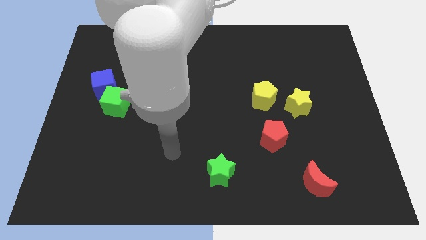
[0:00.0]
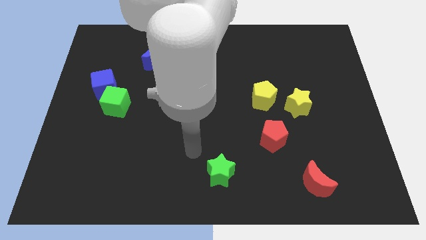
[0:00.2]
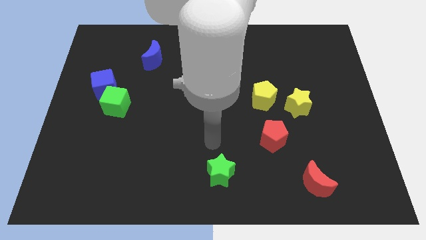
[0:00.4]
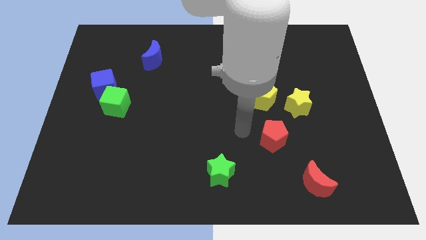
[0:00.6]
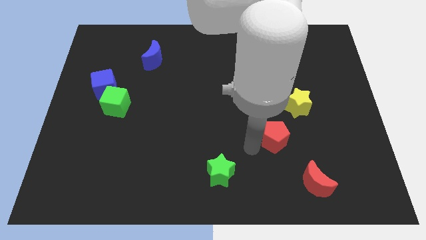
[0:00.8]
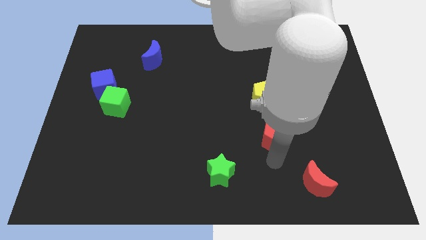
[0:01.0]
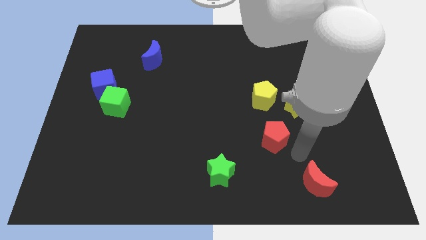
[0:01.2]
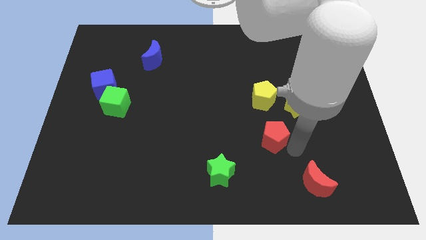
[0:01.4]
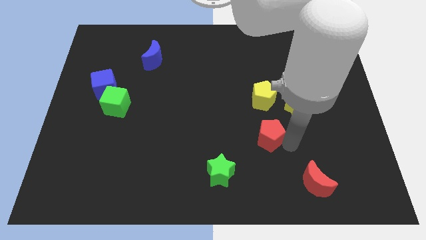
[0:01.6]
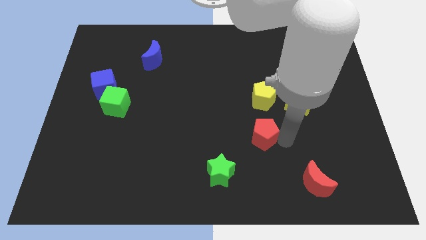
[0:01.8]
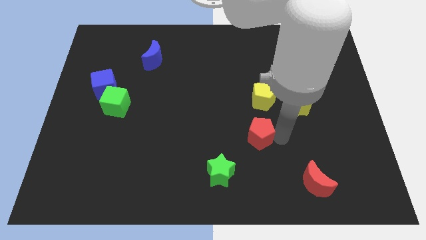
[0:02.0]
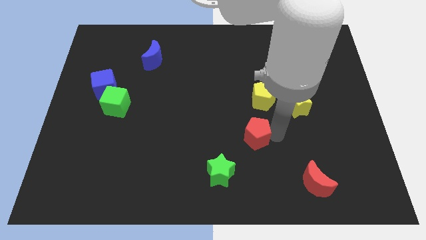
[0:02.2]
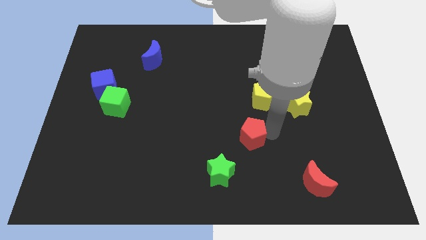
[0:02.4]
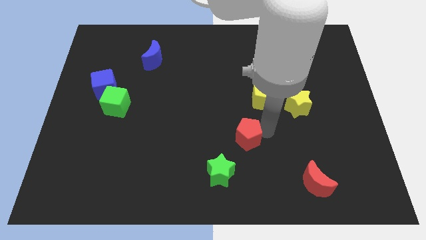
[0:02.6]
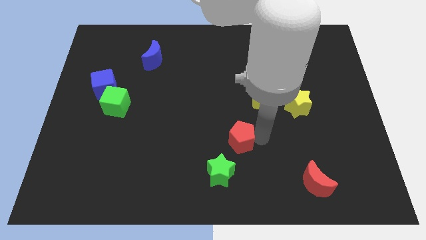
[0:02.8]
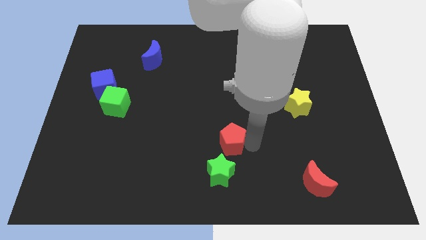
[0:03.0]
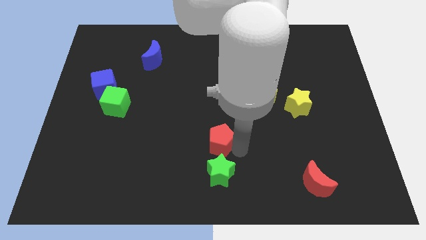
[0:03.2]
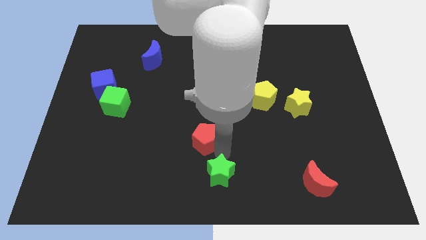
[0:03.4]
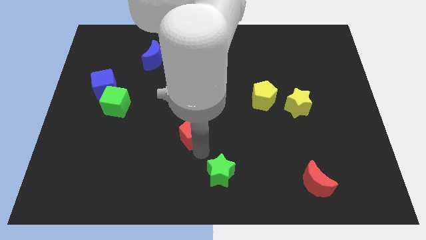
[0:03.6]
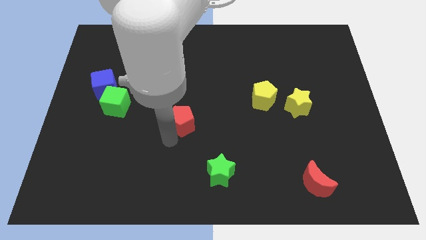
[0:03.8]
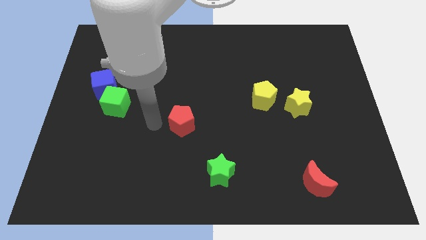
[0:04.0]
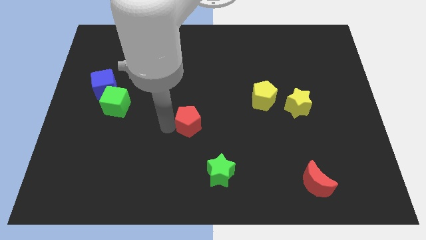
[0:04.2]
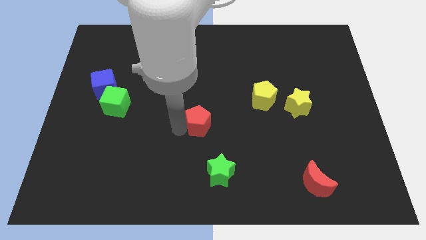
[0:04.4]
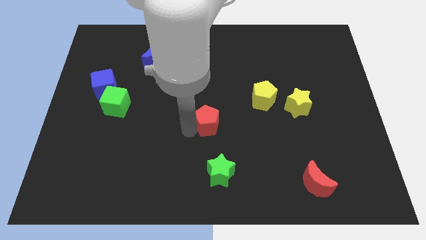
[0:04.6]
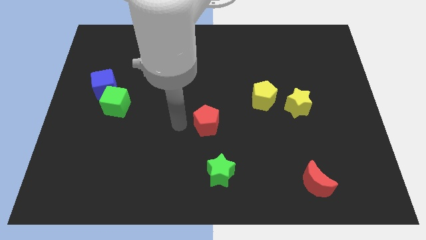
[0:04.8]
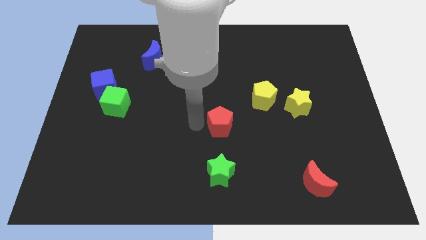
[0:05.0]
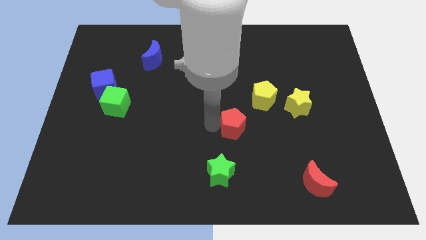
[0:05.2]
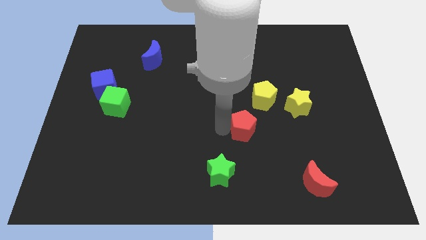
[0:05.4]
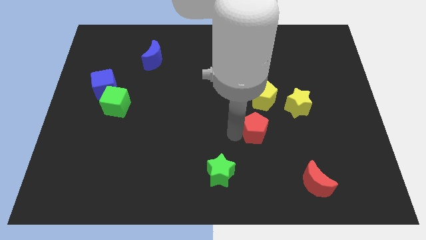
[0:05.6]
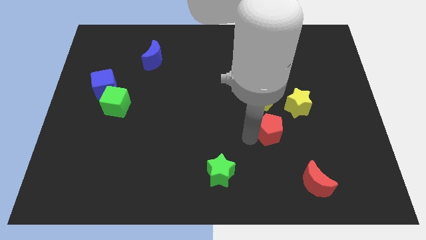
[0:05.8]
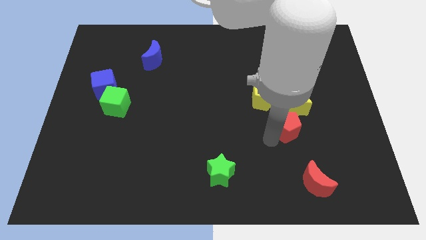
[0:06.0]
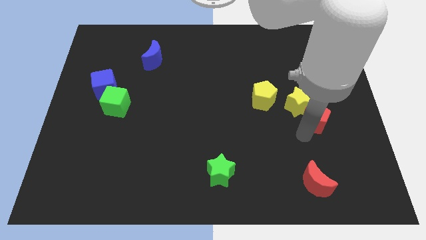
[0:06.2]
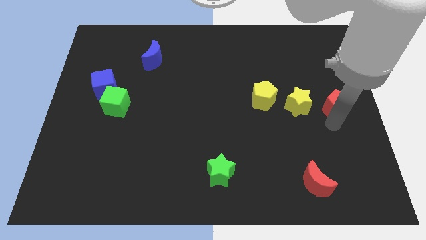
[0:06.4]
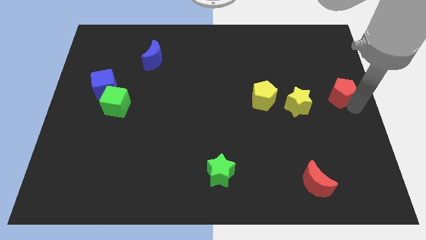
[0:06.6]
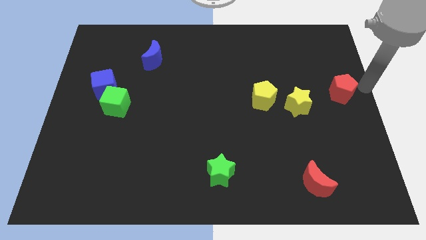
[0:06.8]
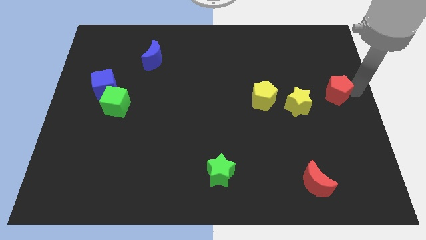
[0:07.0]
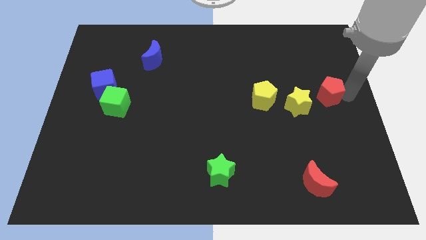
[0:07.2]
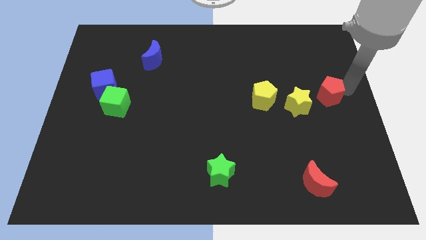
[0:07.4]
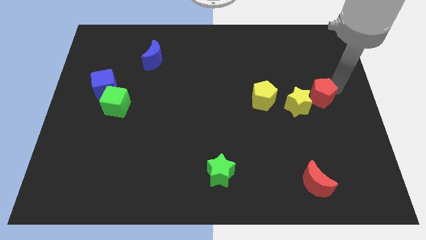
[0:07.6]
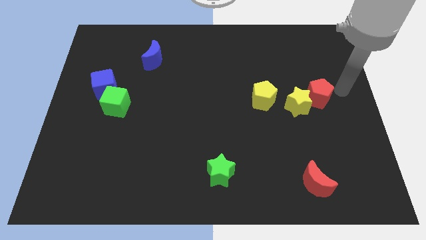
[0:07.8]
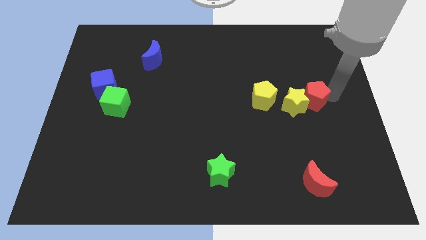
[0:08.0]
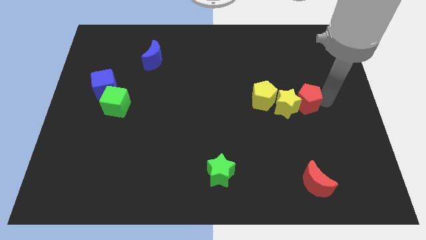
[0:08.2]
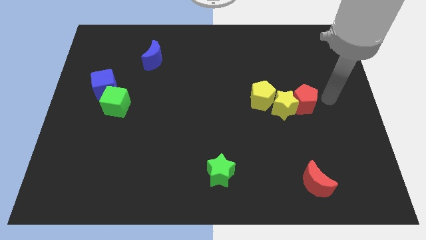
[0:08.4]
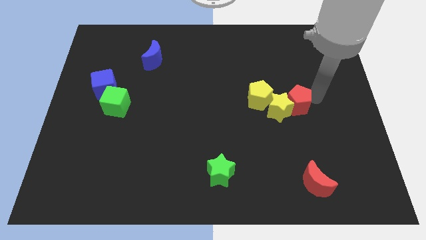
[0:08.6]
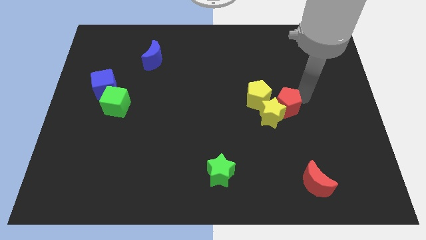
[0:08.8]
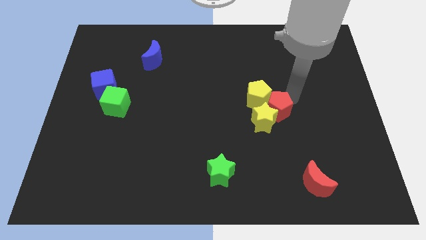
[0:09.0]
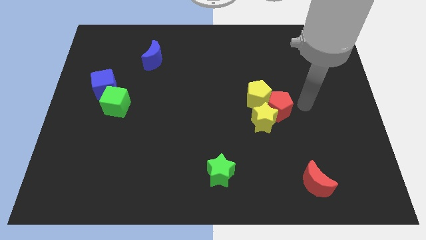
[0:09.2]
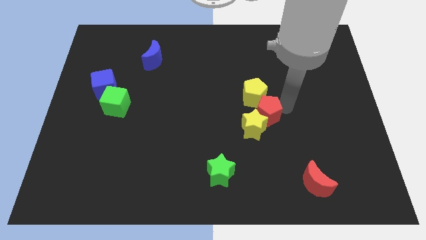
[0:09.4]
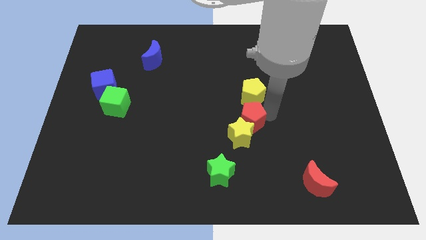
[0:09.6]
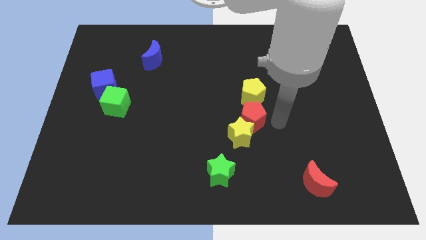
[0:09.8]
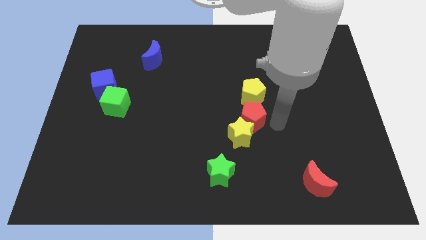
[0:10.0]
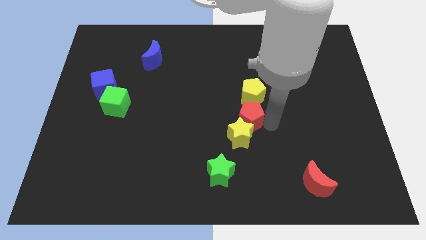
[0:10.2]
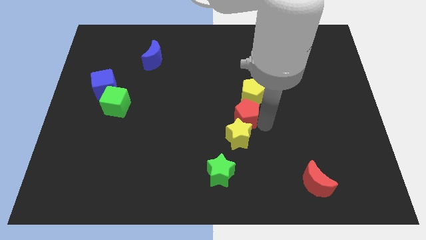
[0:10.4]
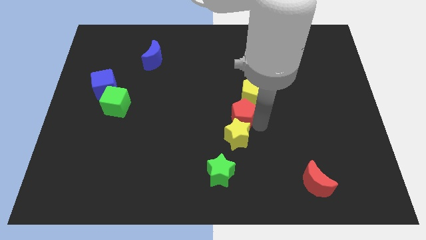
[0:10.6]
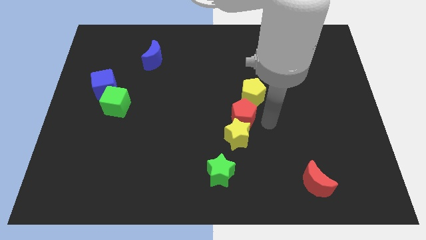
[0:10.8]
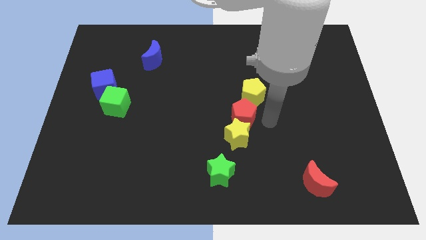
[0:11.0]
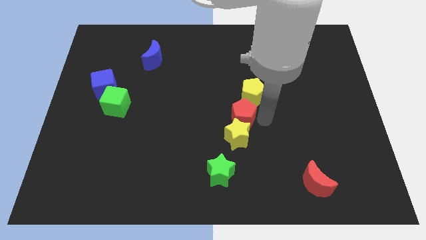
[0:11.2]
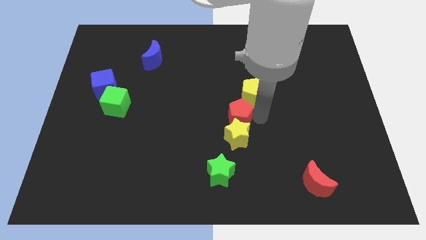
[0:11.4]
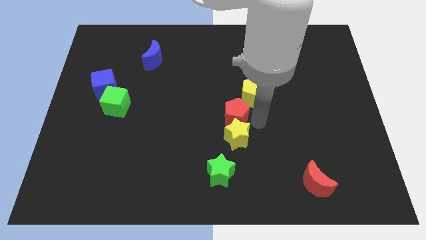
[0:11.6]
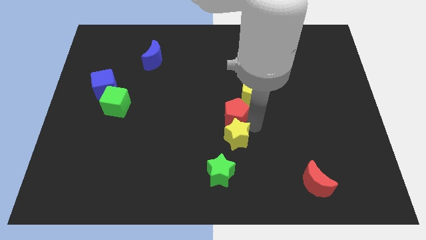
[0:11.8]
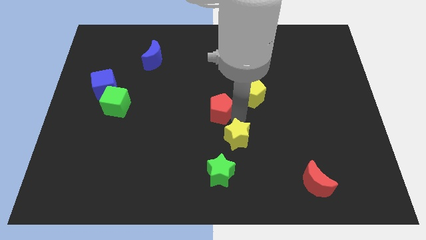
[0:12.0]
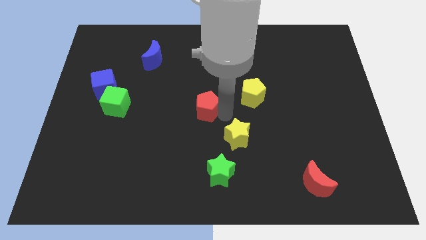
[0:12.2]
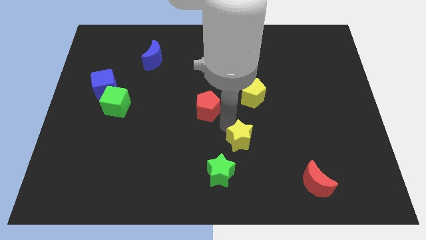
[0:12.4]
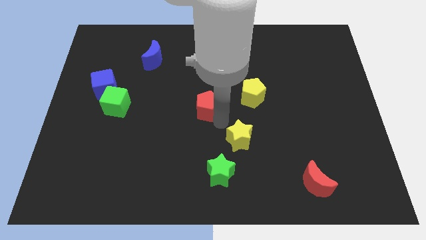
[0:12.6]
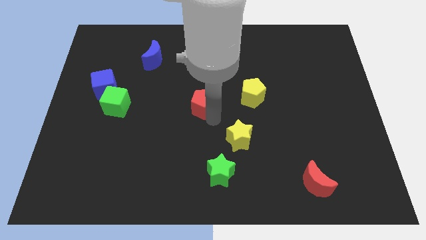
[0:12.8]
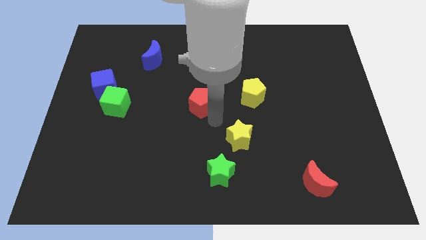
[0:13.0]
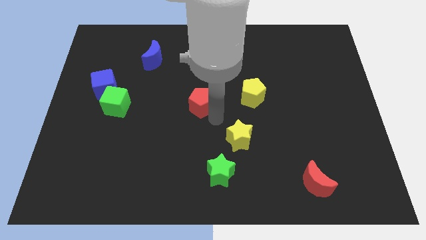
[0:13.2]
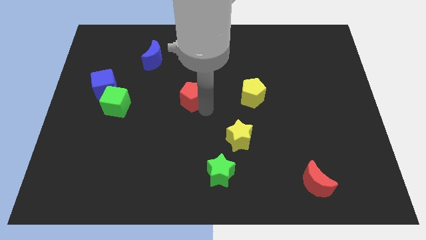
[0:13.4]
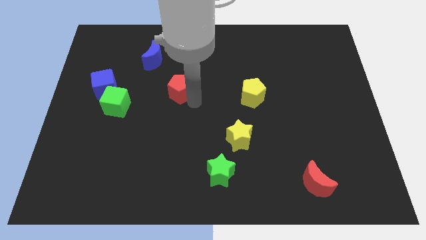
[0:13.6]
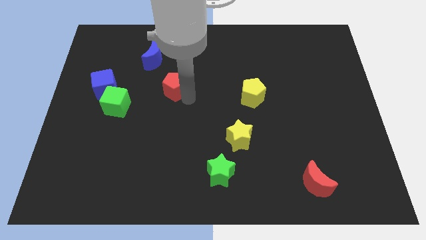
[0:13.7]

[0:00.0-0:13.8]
push the red pentagon to the bottom right side of the blue moon

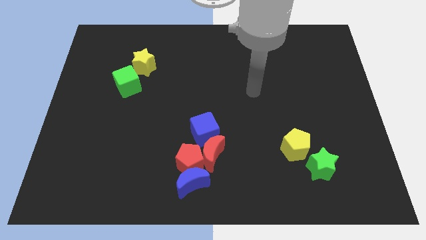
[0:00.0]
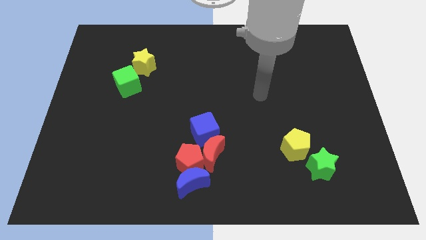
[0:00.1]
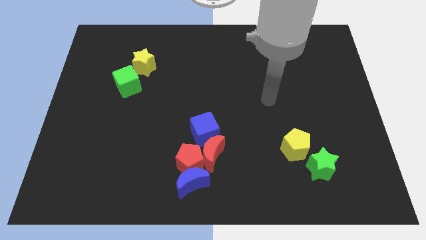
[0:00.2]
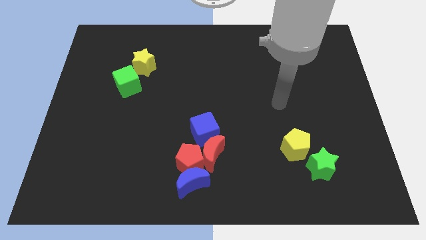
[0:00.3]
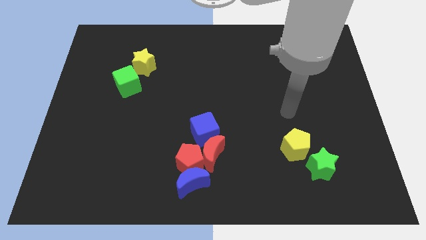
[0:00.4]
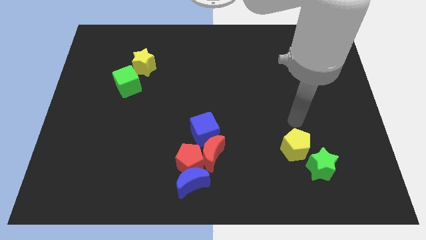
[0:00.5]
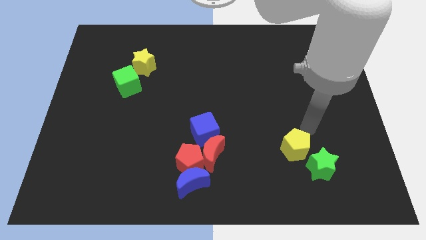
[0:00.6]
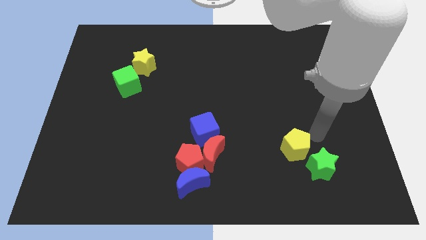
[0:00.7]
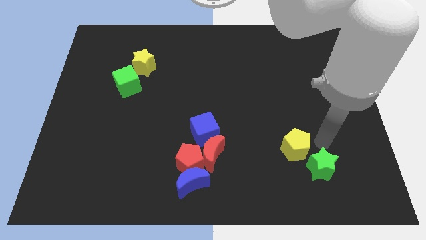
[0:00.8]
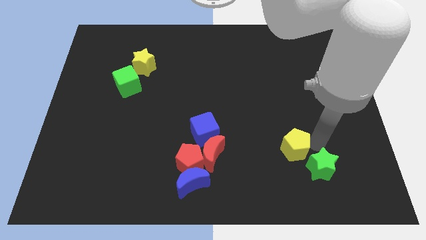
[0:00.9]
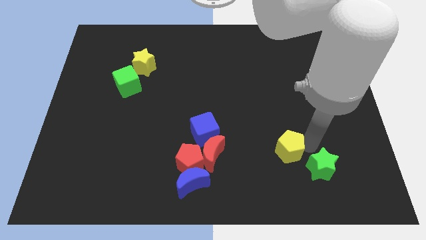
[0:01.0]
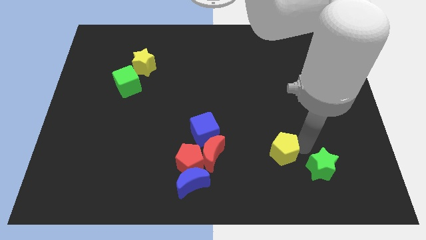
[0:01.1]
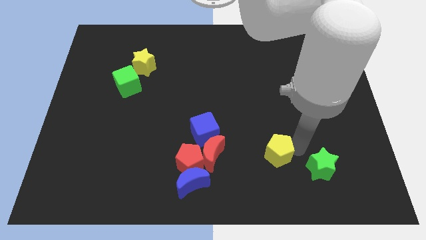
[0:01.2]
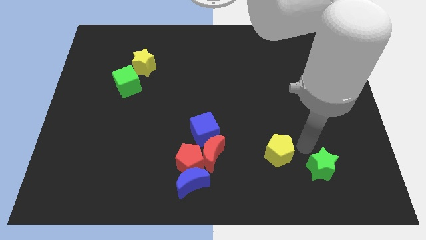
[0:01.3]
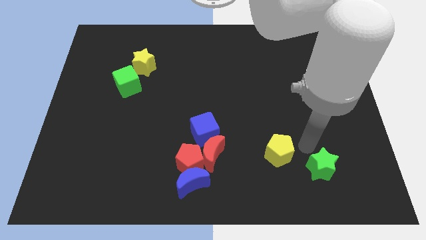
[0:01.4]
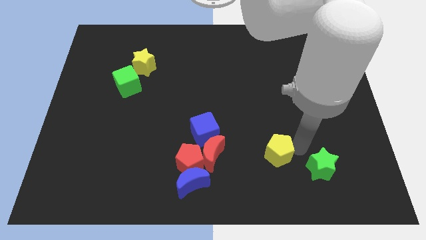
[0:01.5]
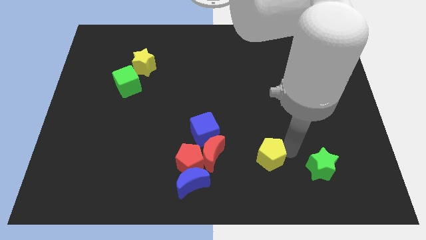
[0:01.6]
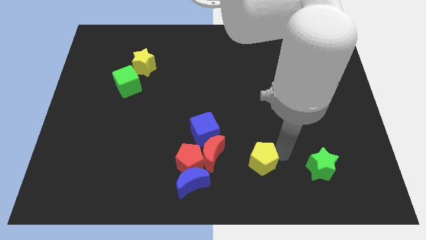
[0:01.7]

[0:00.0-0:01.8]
push the yellow pentagon to the right side of the red pentagon
